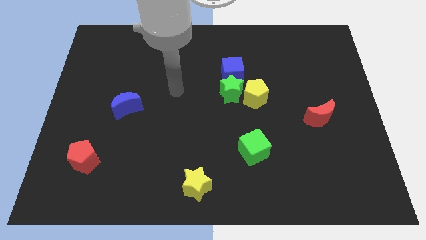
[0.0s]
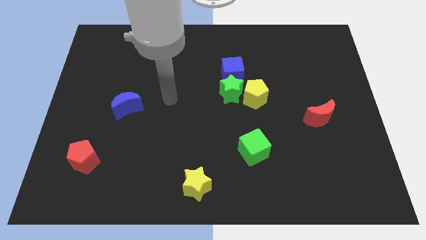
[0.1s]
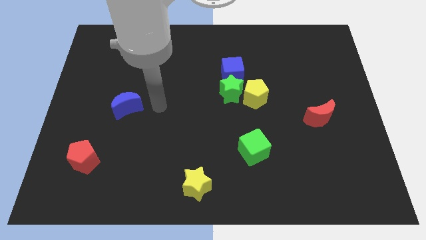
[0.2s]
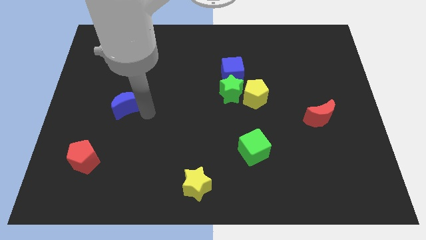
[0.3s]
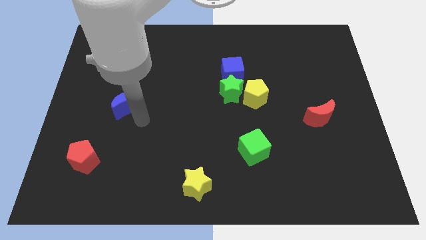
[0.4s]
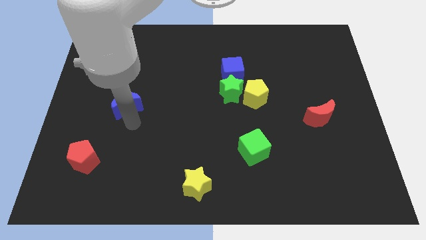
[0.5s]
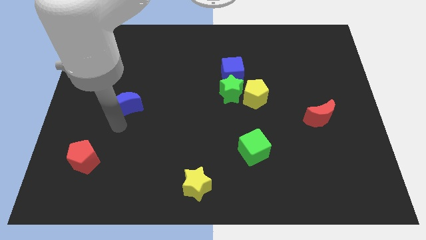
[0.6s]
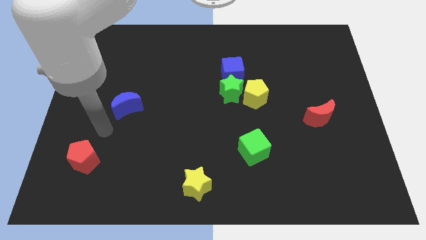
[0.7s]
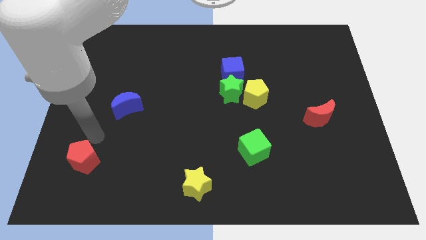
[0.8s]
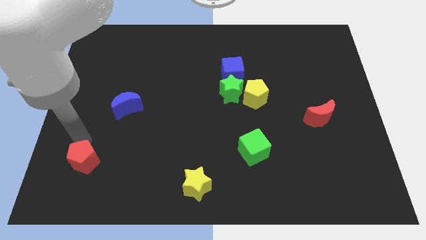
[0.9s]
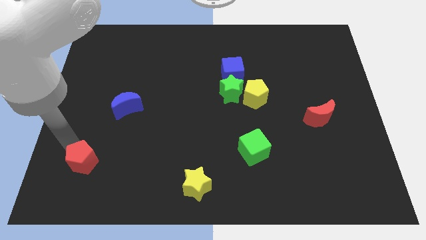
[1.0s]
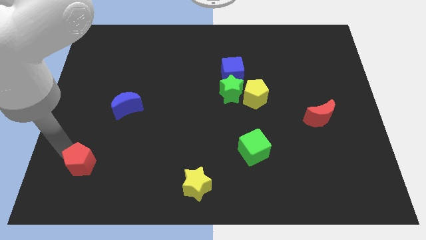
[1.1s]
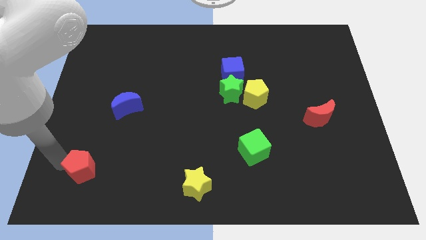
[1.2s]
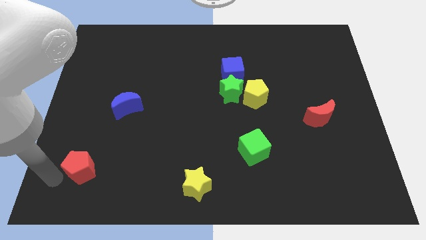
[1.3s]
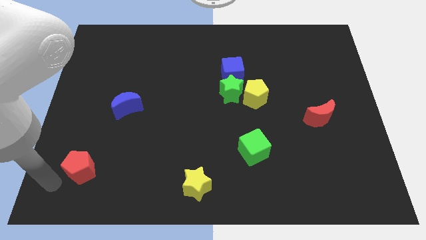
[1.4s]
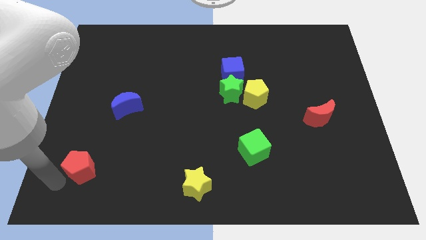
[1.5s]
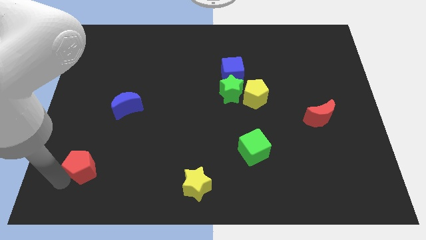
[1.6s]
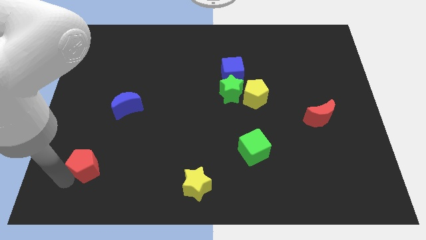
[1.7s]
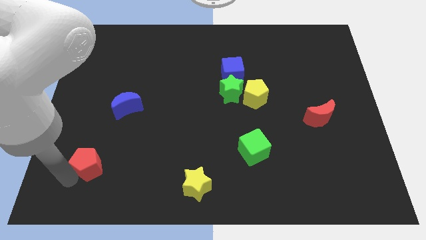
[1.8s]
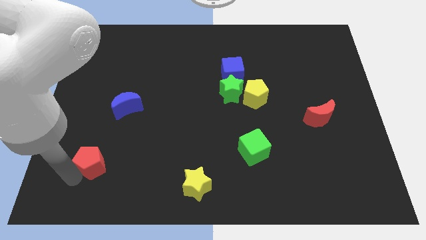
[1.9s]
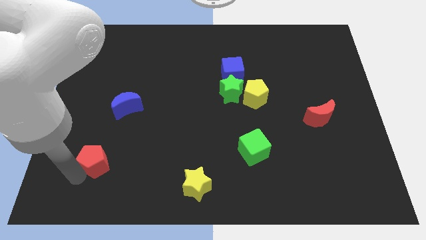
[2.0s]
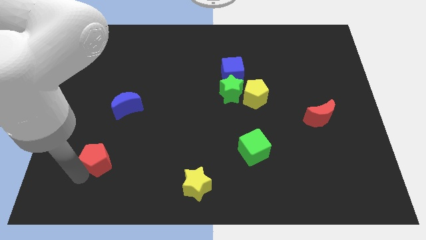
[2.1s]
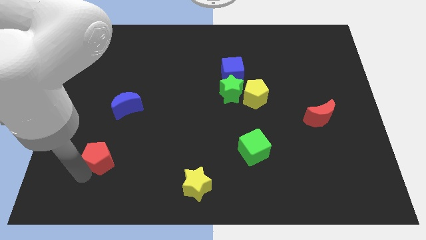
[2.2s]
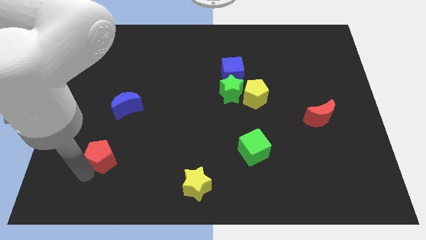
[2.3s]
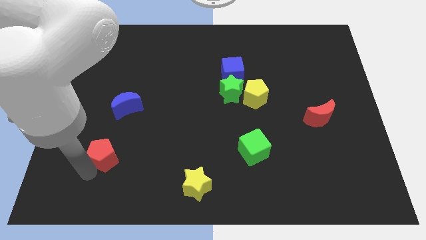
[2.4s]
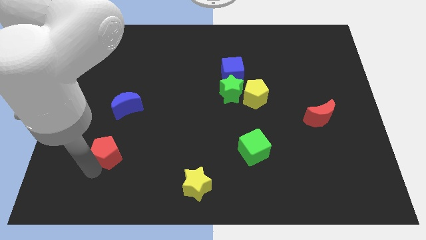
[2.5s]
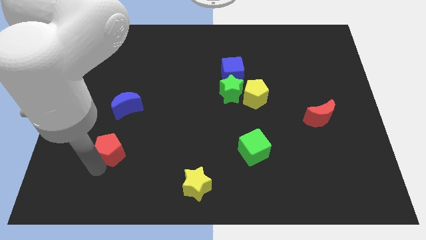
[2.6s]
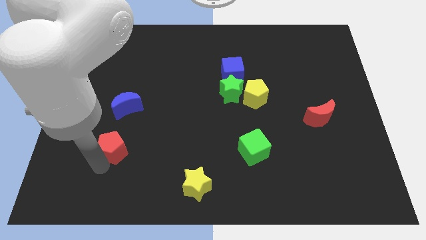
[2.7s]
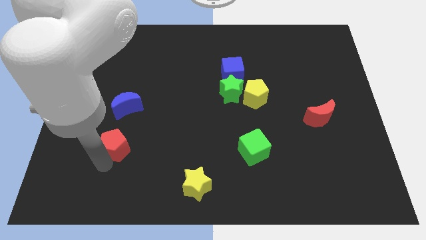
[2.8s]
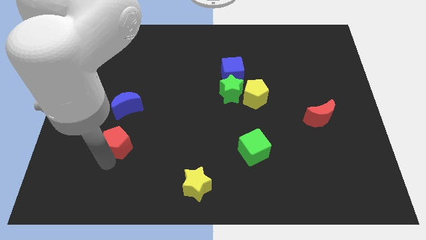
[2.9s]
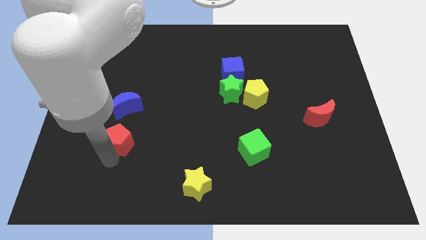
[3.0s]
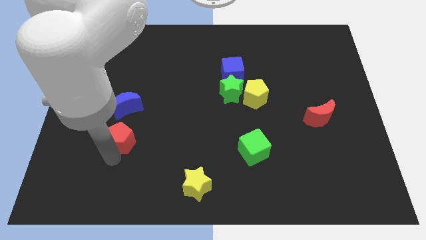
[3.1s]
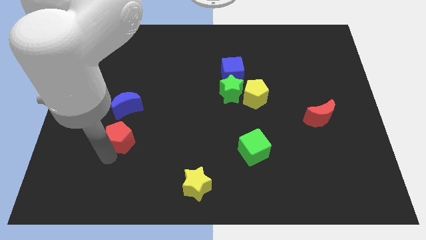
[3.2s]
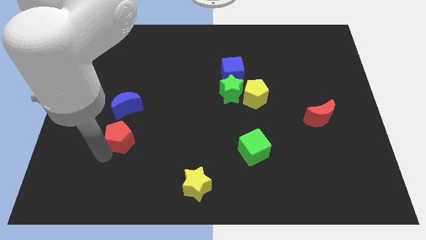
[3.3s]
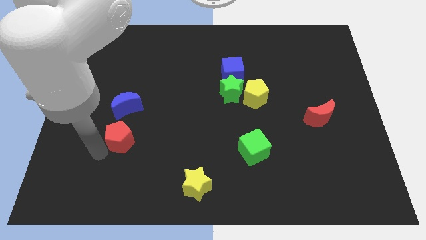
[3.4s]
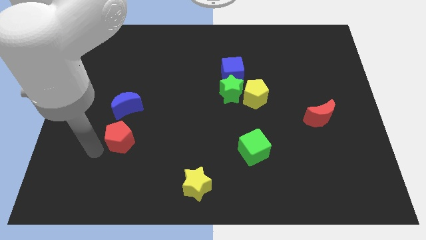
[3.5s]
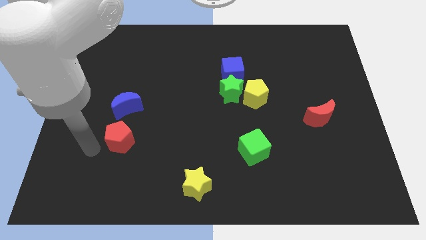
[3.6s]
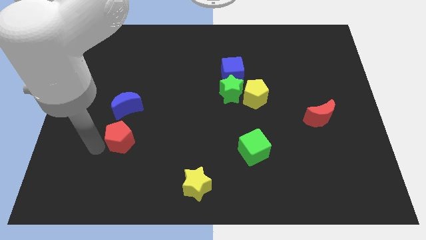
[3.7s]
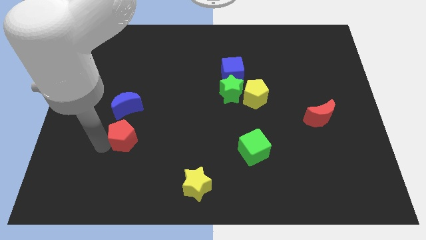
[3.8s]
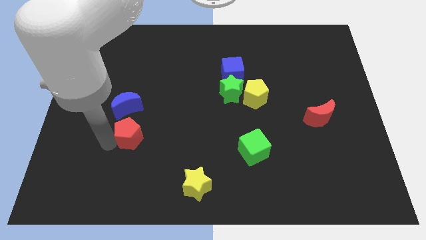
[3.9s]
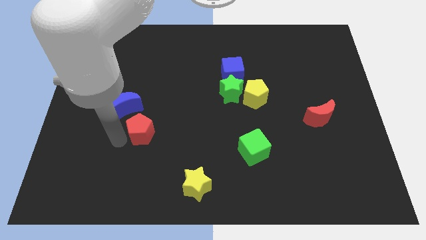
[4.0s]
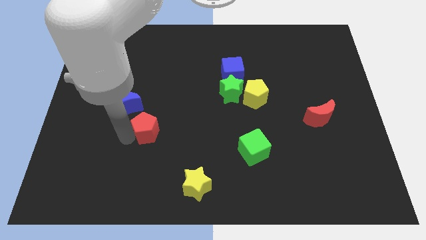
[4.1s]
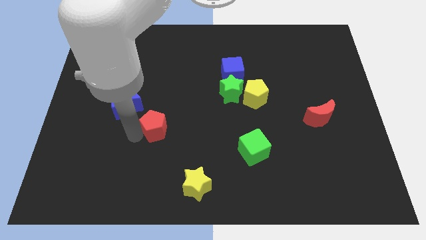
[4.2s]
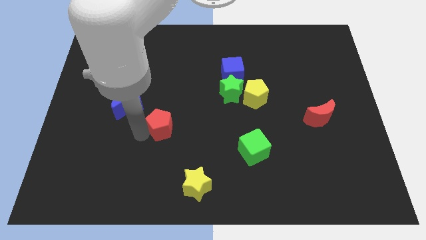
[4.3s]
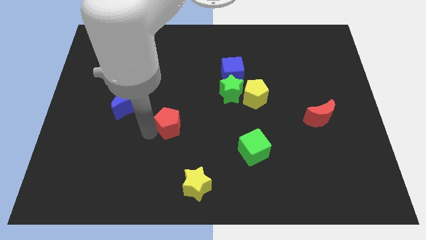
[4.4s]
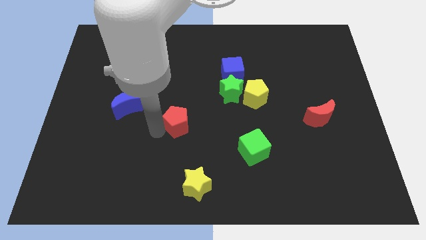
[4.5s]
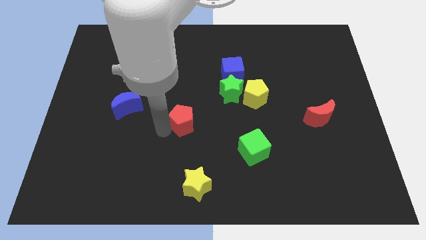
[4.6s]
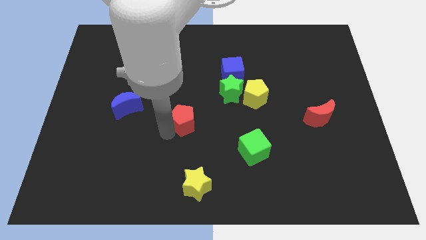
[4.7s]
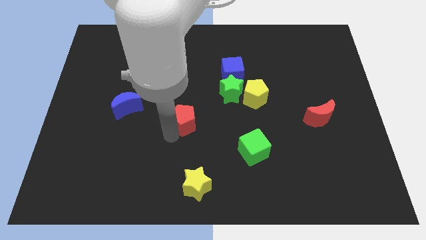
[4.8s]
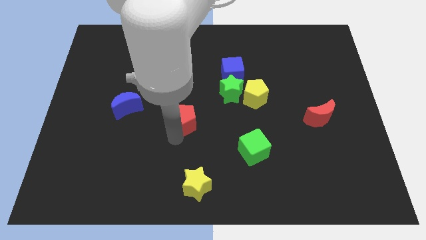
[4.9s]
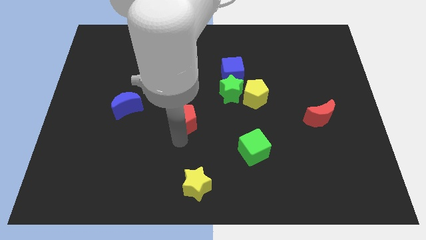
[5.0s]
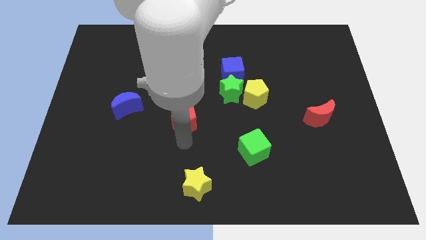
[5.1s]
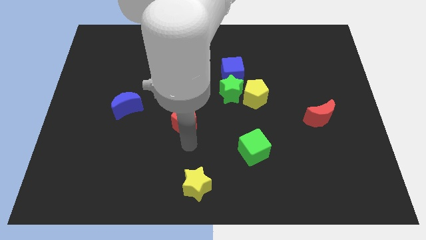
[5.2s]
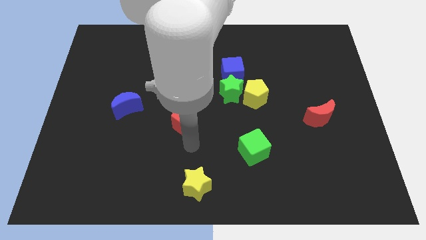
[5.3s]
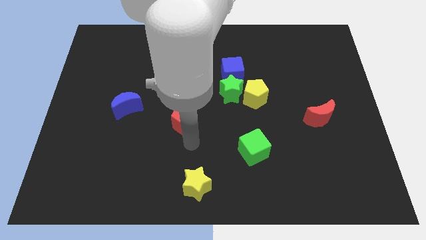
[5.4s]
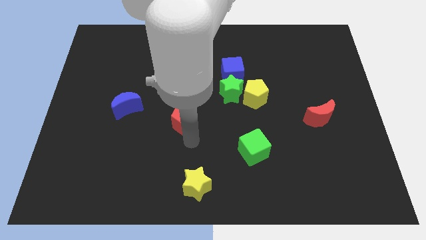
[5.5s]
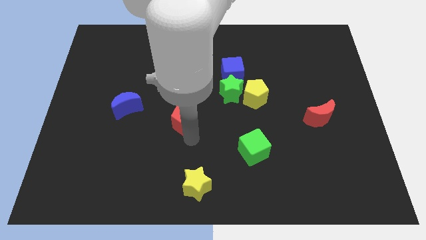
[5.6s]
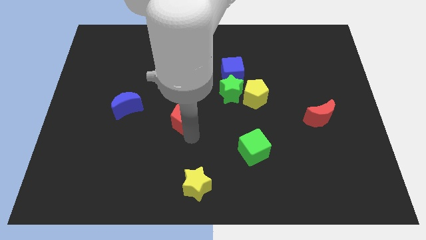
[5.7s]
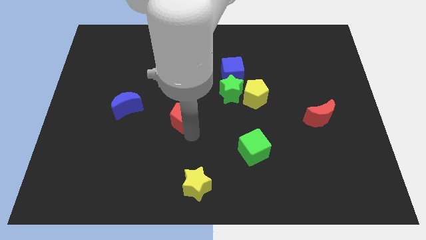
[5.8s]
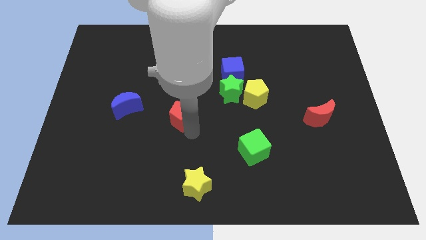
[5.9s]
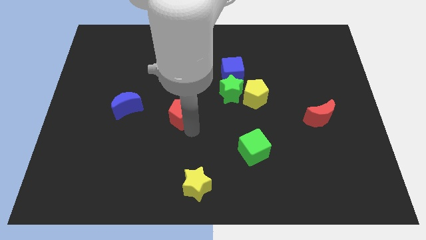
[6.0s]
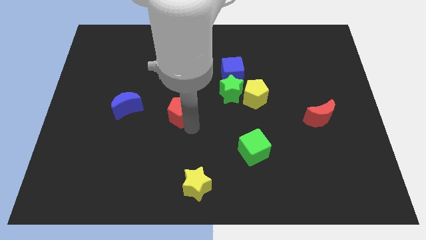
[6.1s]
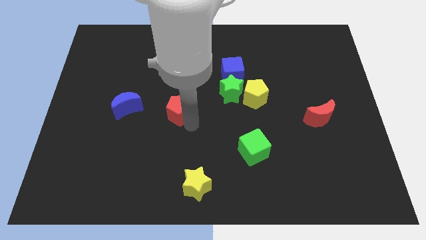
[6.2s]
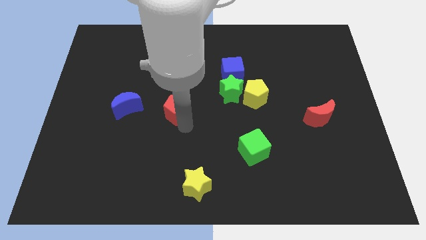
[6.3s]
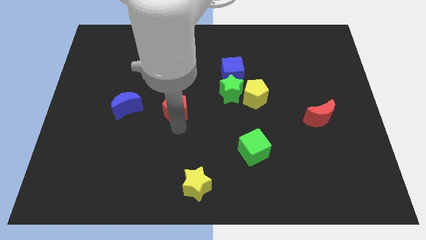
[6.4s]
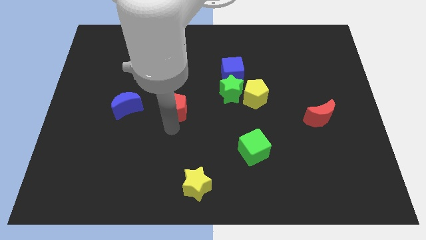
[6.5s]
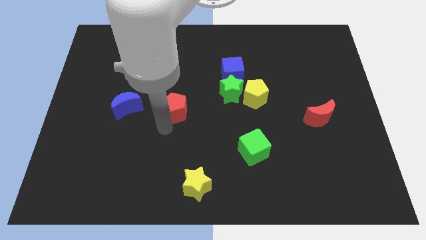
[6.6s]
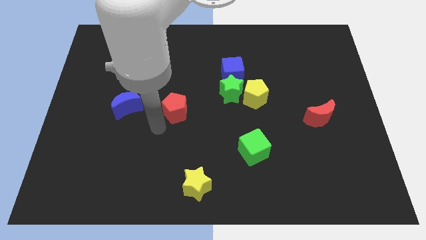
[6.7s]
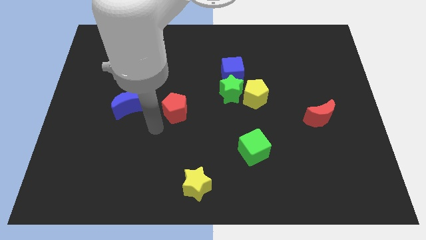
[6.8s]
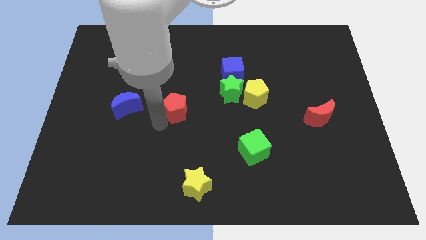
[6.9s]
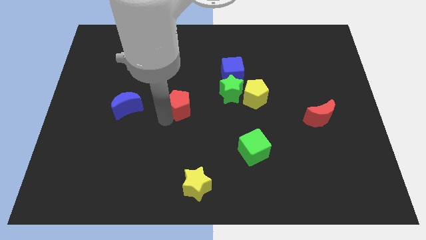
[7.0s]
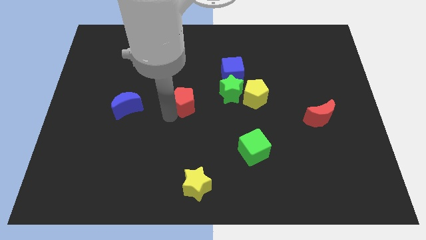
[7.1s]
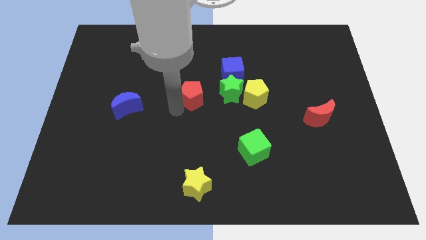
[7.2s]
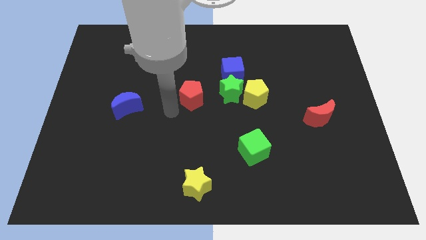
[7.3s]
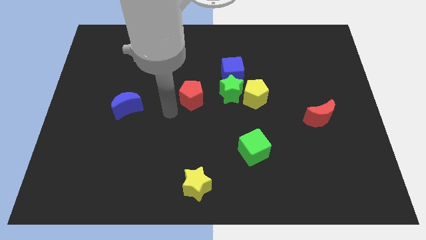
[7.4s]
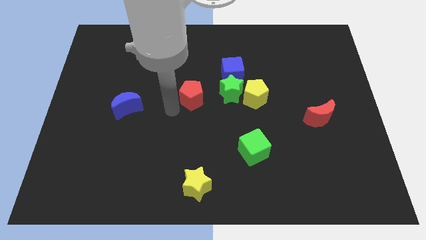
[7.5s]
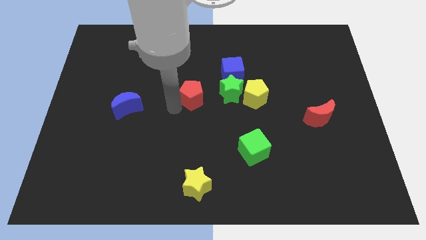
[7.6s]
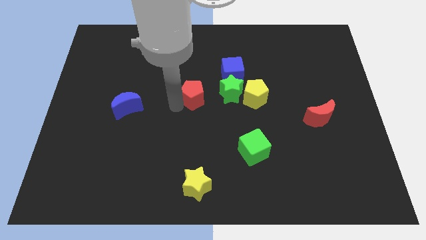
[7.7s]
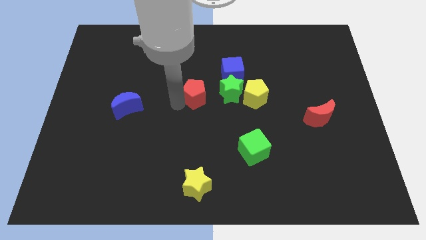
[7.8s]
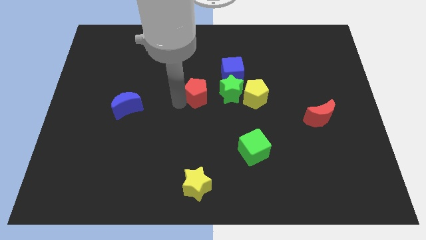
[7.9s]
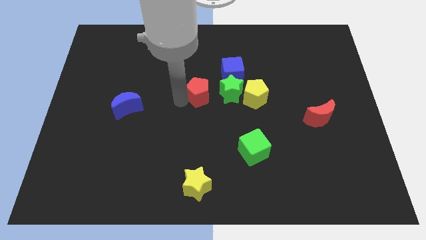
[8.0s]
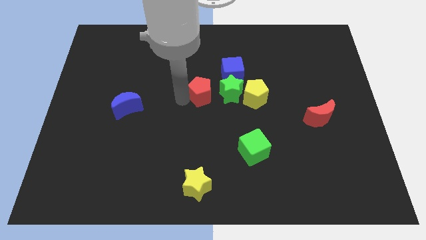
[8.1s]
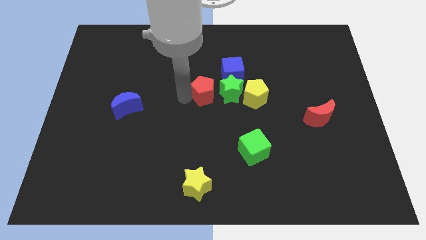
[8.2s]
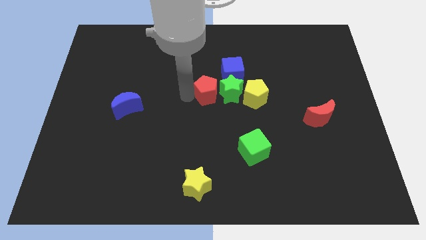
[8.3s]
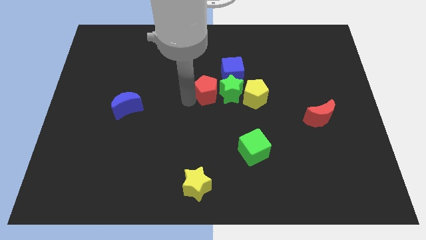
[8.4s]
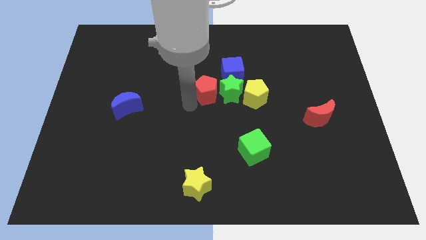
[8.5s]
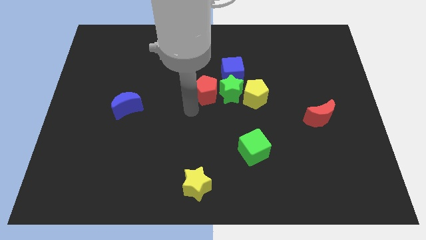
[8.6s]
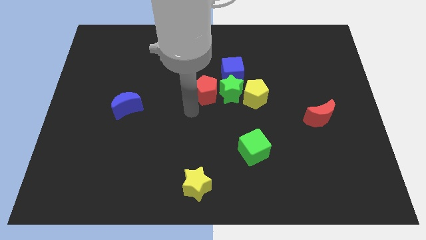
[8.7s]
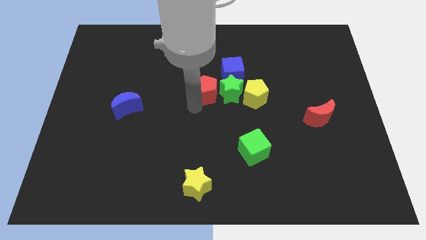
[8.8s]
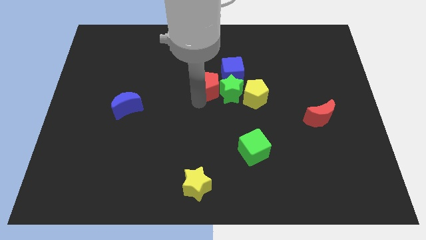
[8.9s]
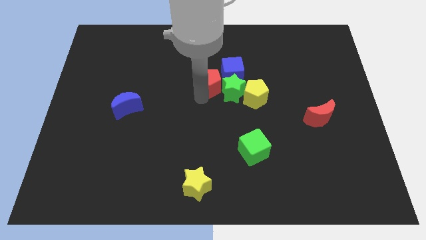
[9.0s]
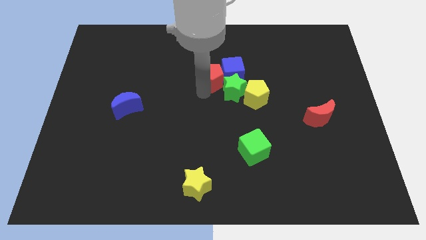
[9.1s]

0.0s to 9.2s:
put the red pentagon towards the blue cube
